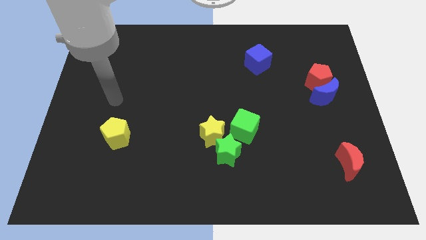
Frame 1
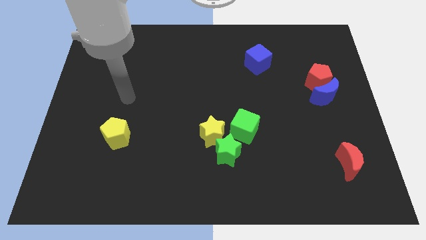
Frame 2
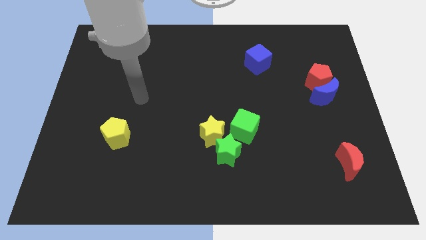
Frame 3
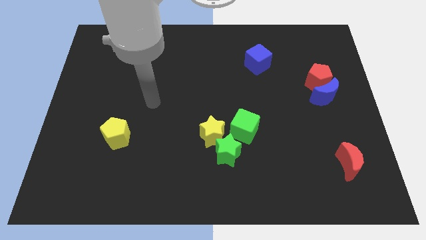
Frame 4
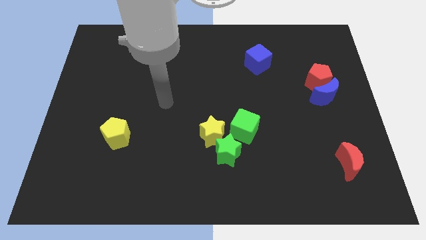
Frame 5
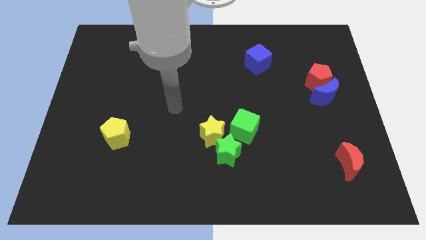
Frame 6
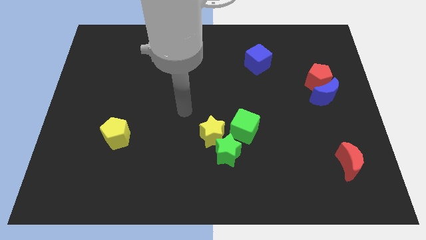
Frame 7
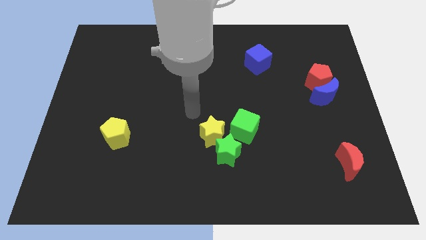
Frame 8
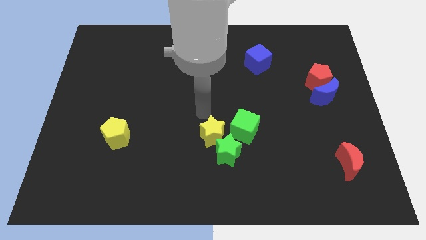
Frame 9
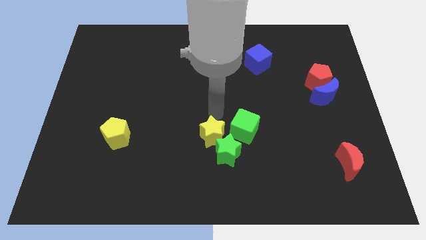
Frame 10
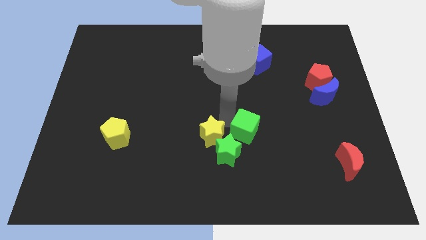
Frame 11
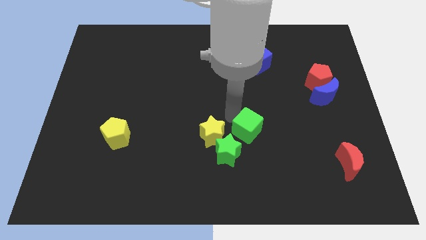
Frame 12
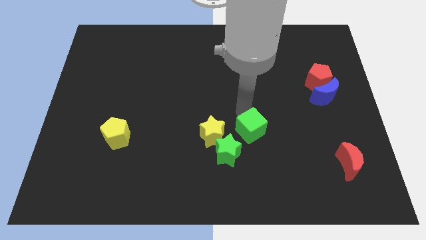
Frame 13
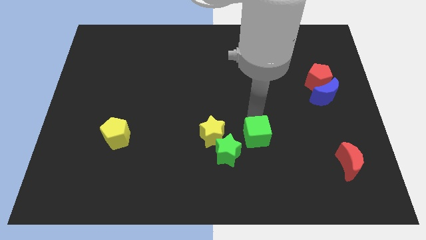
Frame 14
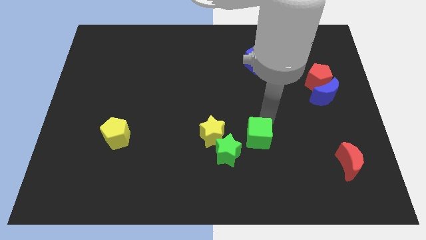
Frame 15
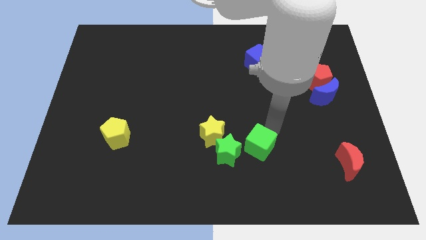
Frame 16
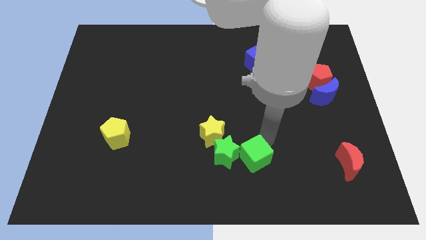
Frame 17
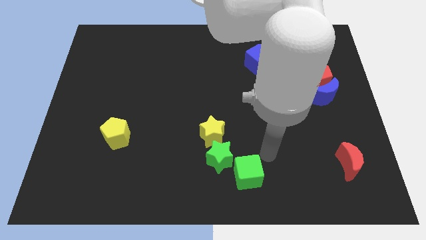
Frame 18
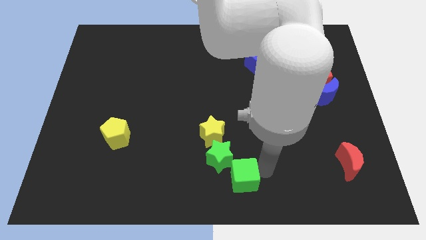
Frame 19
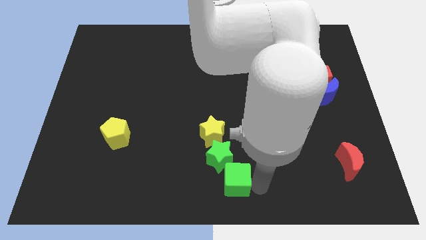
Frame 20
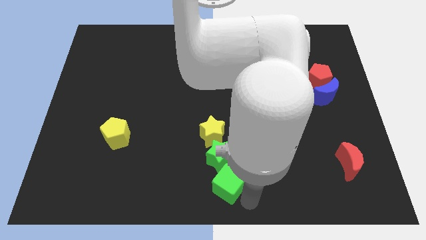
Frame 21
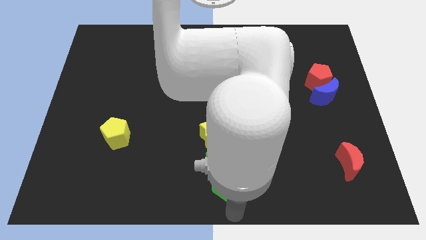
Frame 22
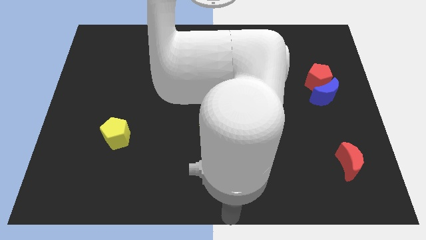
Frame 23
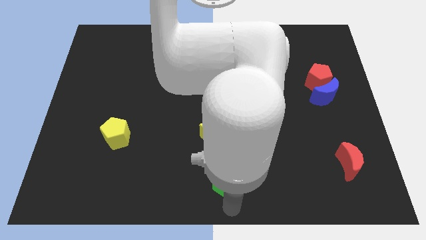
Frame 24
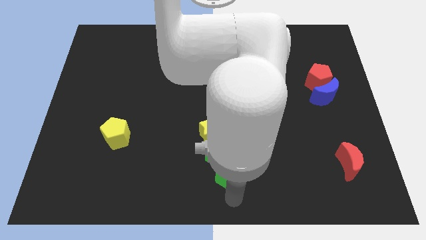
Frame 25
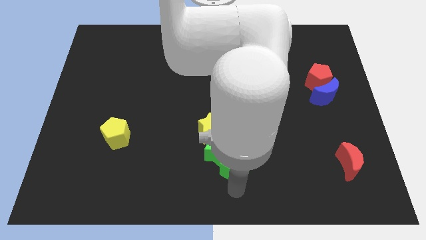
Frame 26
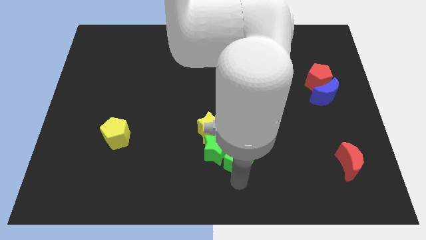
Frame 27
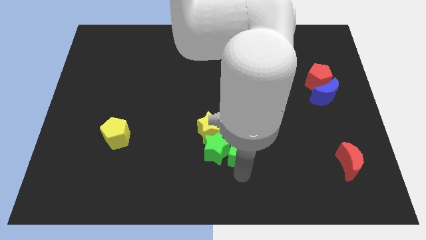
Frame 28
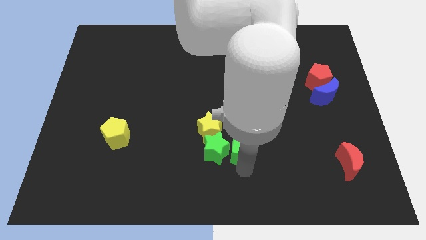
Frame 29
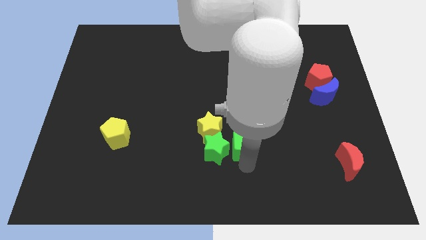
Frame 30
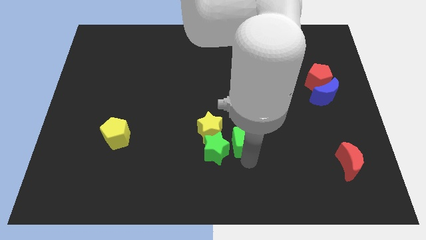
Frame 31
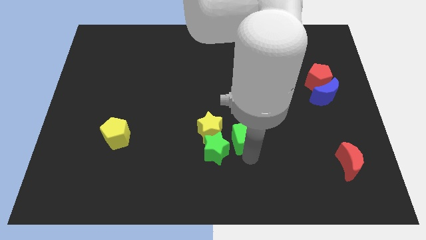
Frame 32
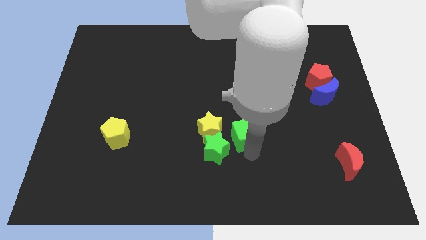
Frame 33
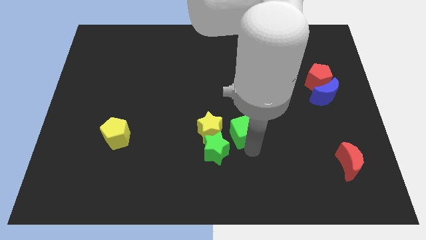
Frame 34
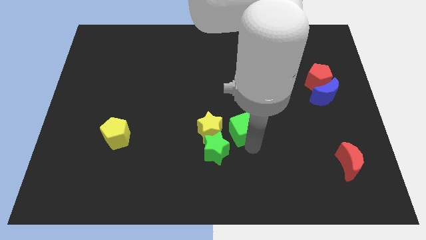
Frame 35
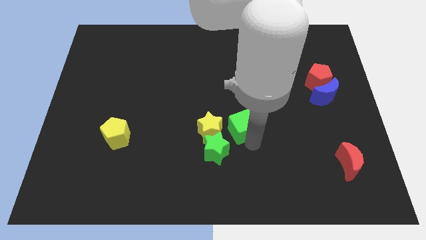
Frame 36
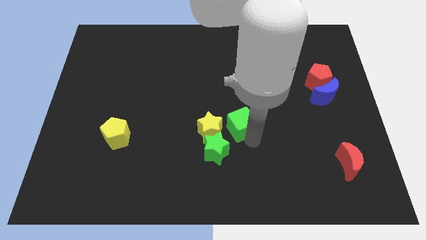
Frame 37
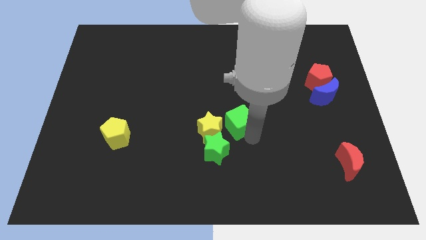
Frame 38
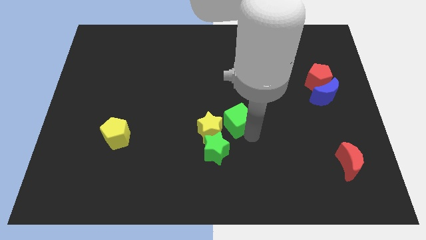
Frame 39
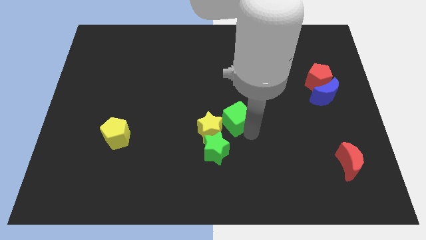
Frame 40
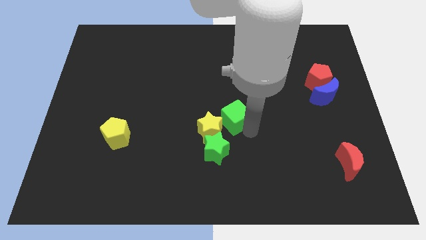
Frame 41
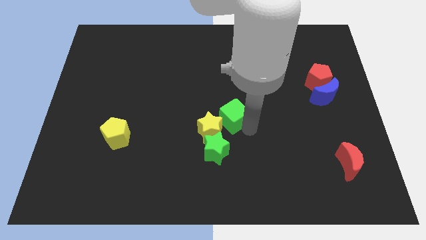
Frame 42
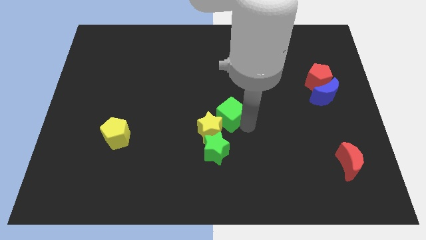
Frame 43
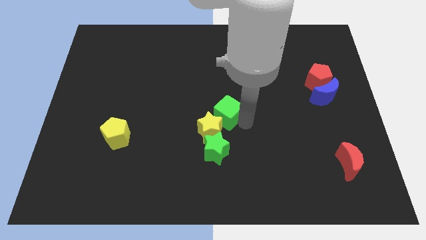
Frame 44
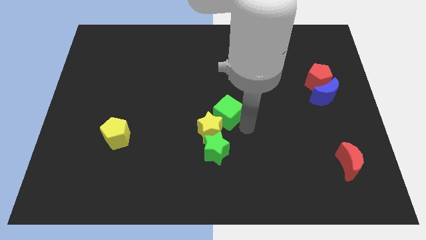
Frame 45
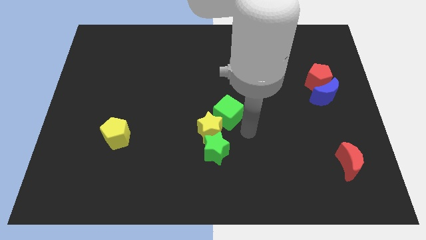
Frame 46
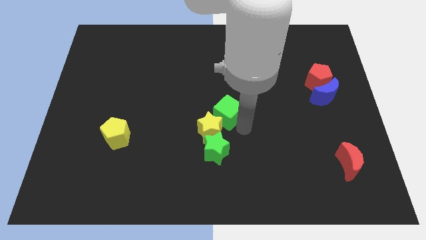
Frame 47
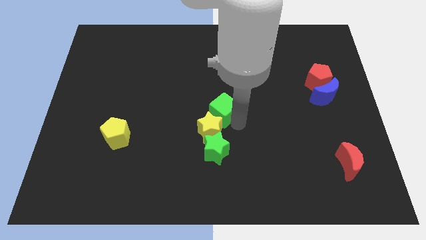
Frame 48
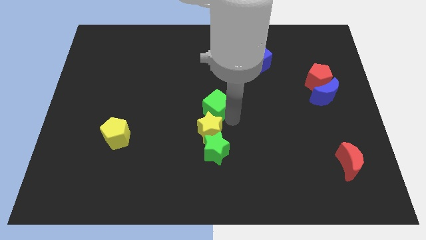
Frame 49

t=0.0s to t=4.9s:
slightly slide the green cube up and left diagonally

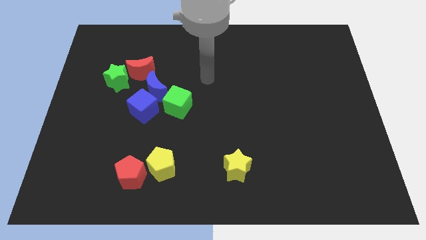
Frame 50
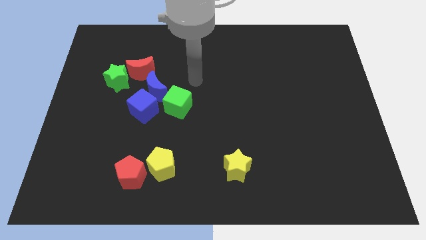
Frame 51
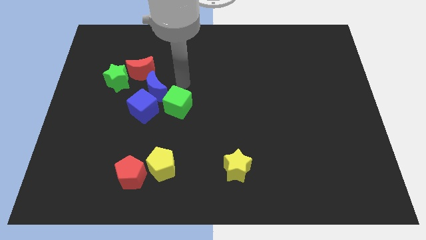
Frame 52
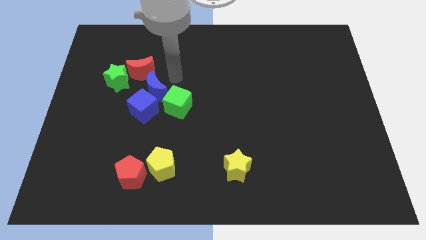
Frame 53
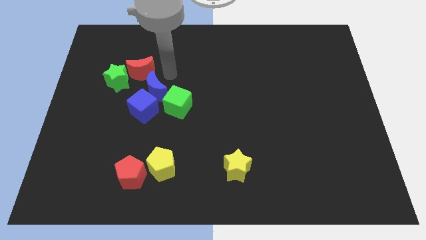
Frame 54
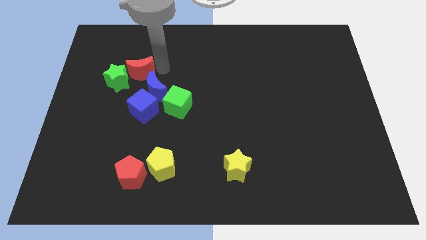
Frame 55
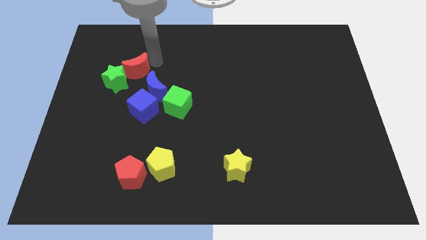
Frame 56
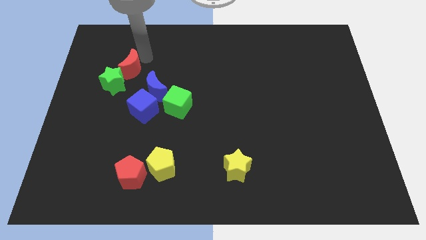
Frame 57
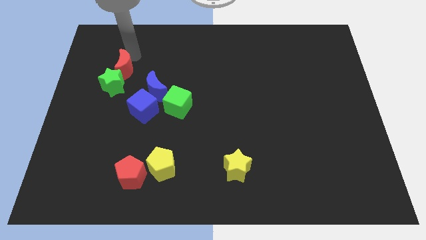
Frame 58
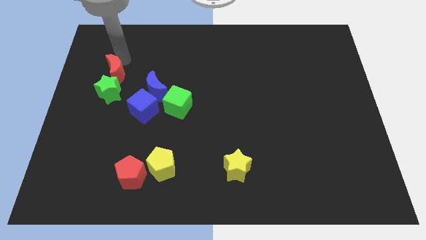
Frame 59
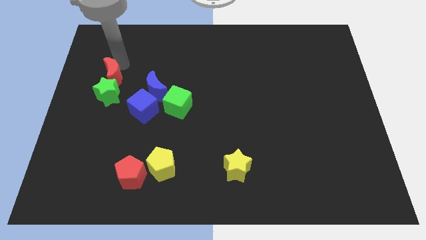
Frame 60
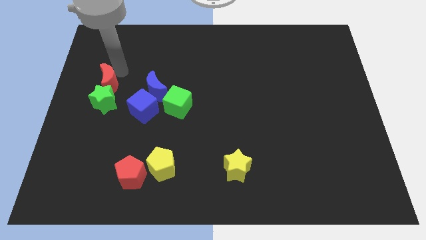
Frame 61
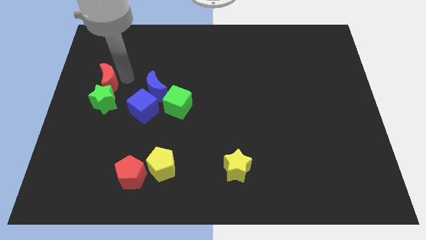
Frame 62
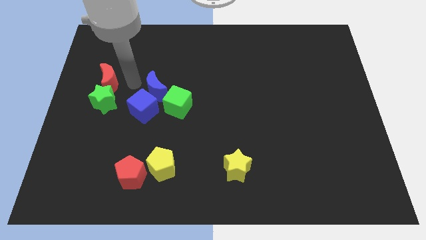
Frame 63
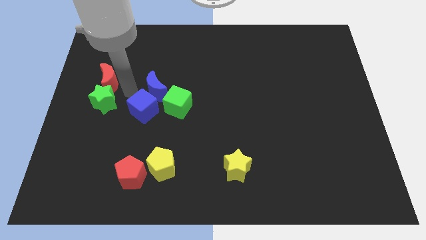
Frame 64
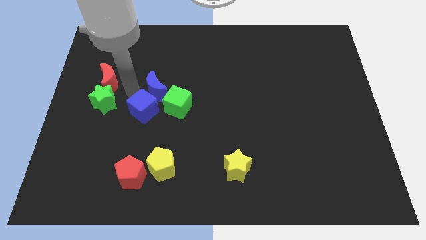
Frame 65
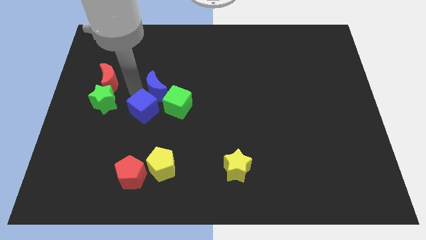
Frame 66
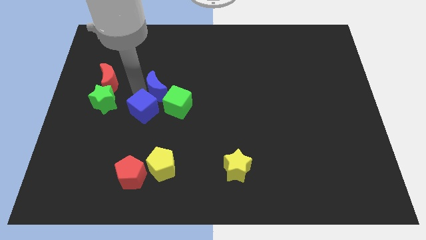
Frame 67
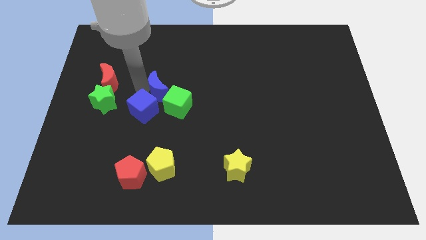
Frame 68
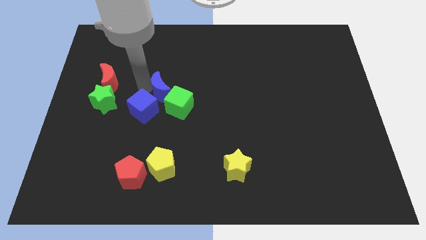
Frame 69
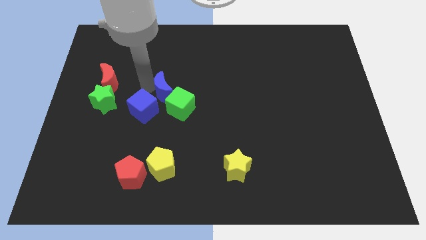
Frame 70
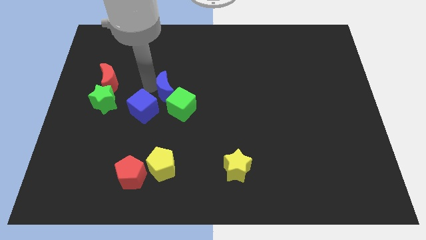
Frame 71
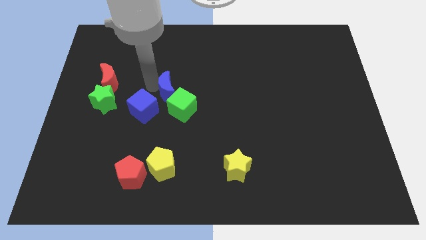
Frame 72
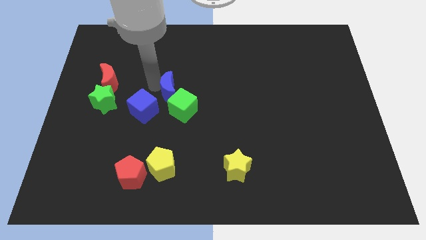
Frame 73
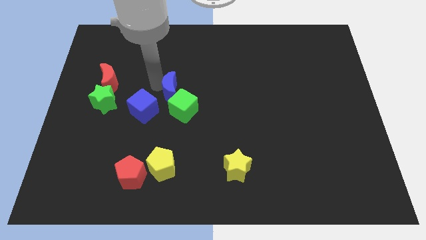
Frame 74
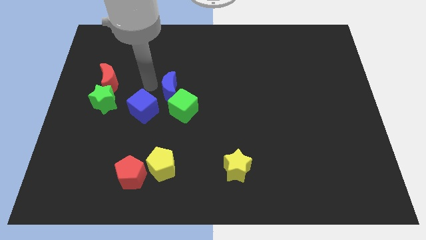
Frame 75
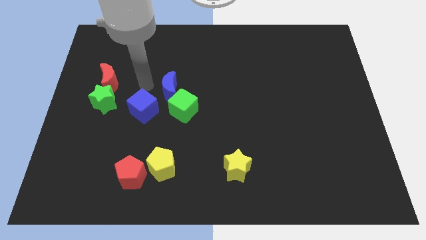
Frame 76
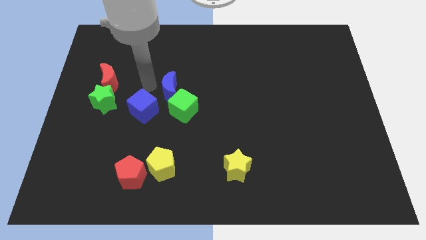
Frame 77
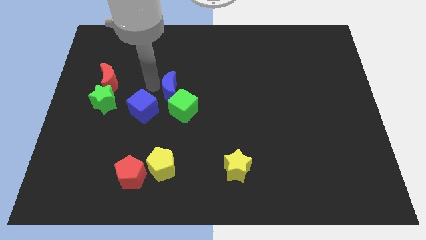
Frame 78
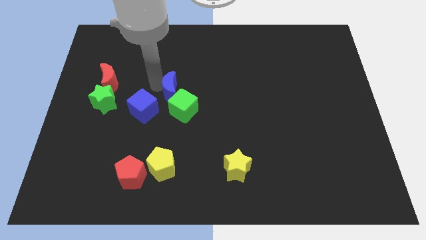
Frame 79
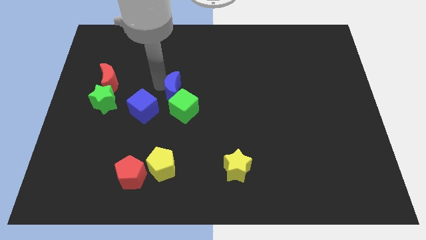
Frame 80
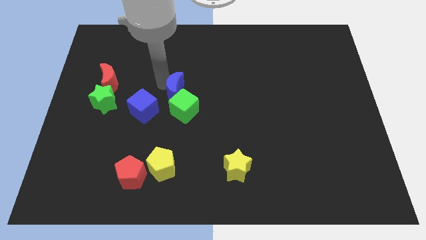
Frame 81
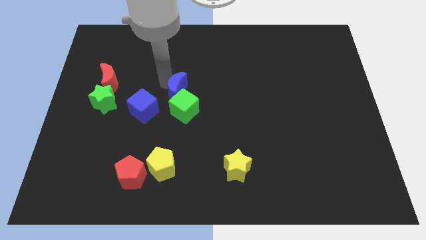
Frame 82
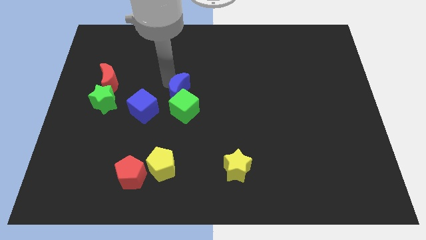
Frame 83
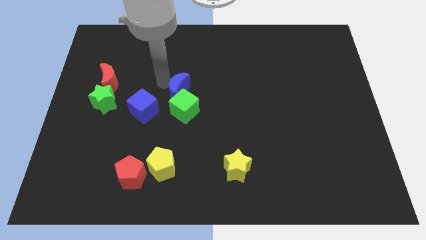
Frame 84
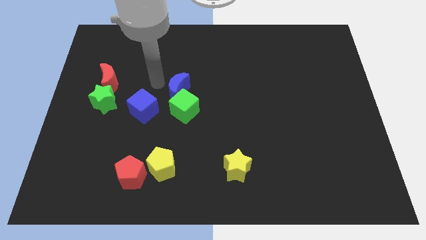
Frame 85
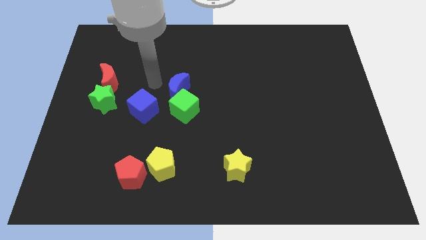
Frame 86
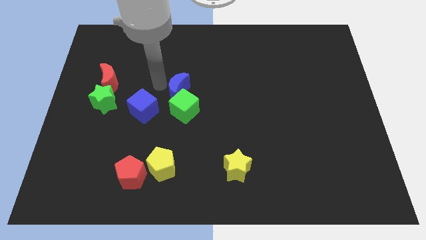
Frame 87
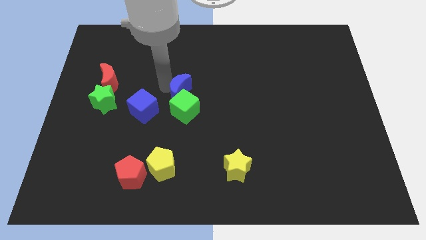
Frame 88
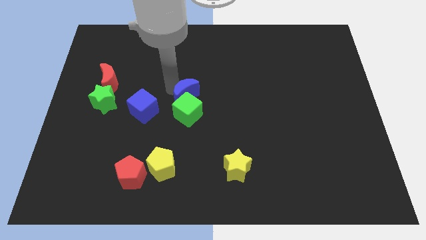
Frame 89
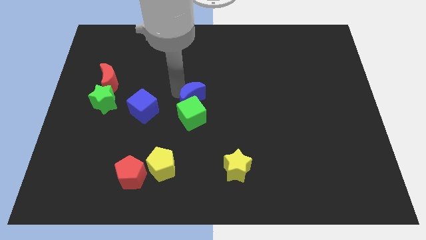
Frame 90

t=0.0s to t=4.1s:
slightly move the blue moon diagonally downwards and right
